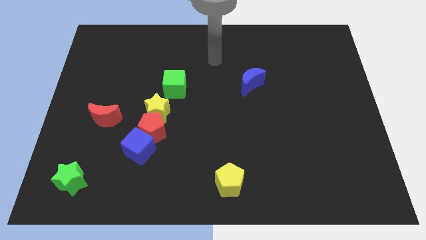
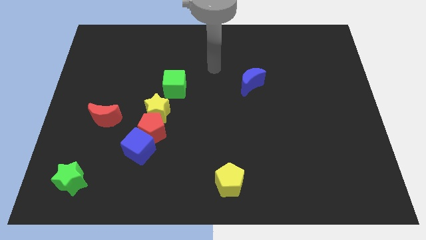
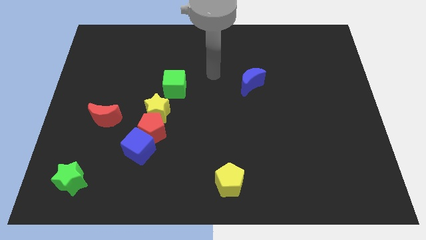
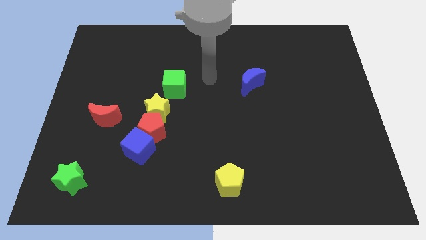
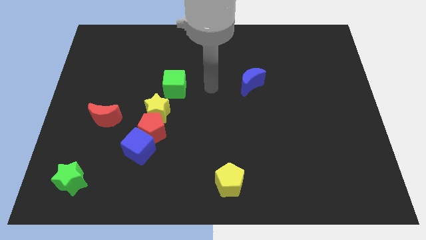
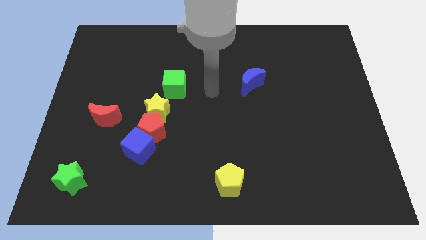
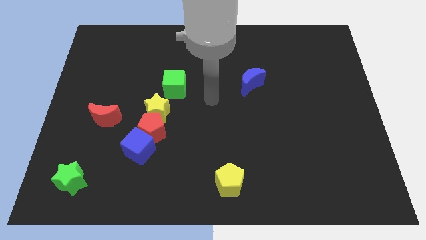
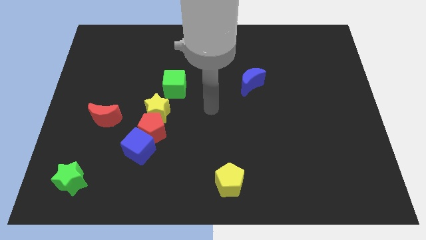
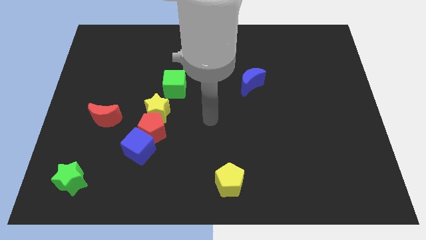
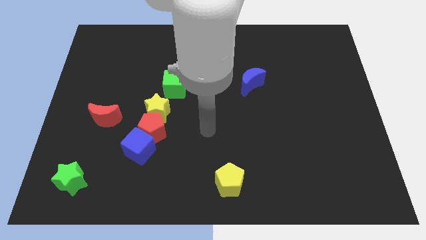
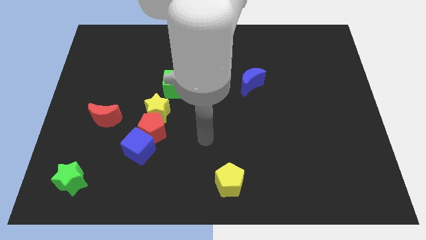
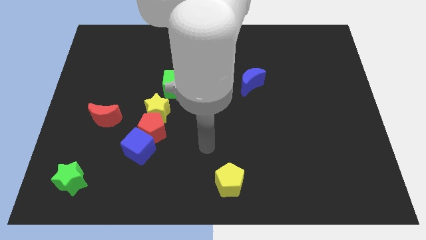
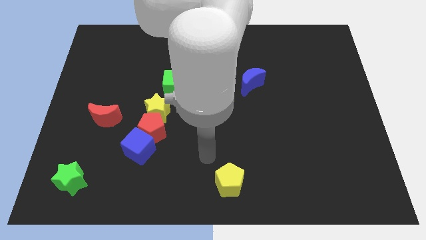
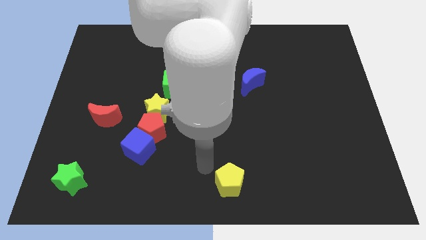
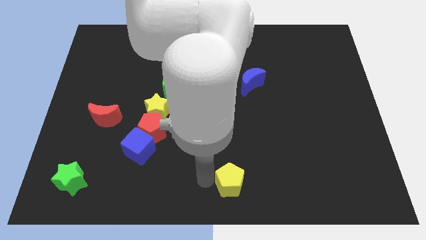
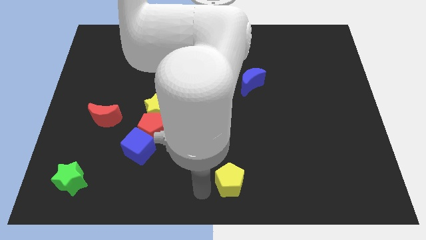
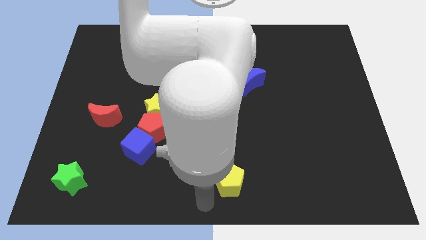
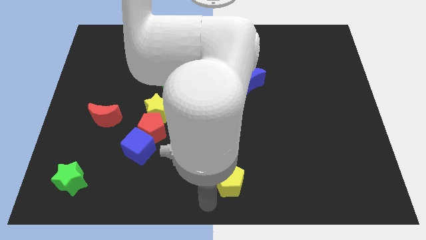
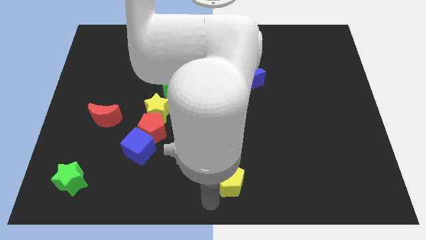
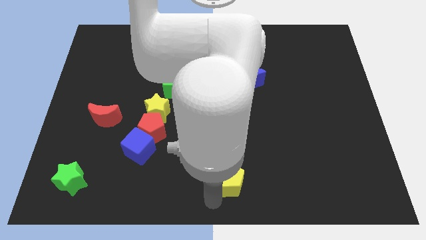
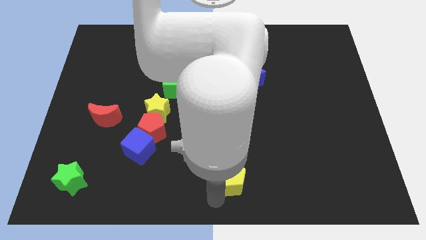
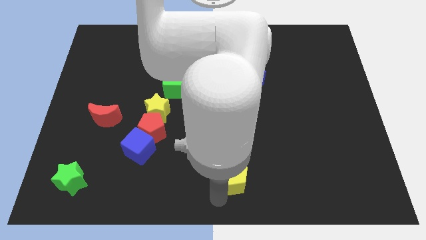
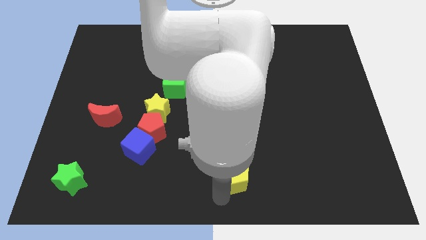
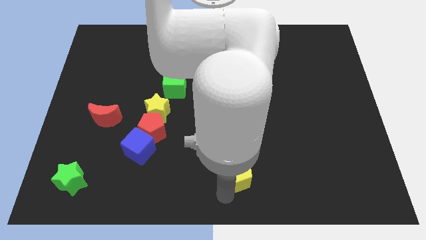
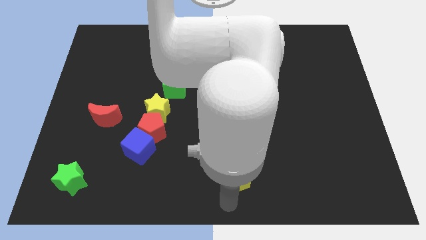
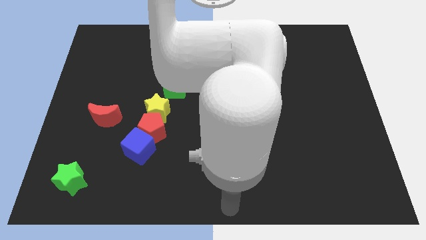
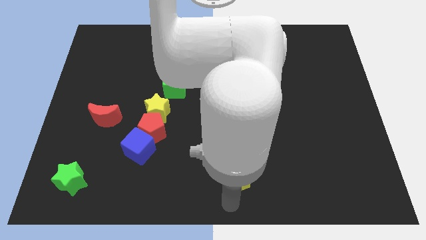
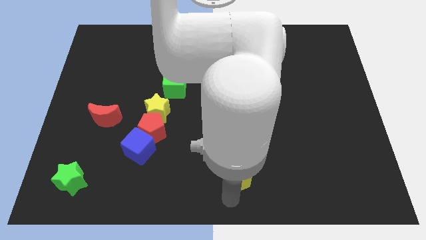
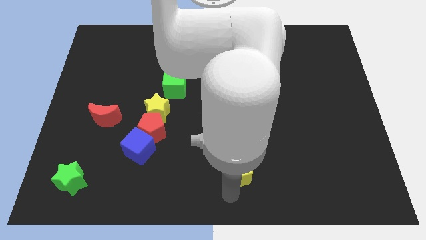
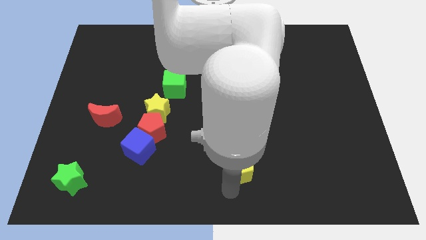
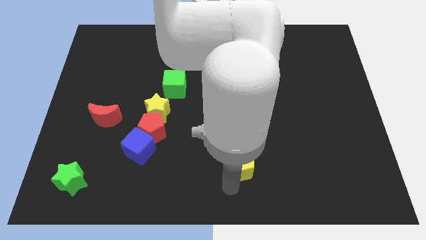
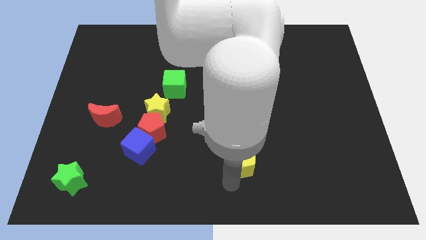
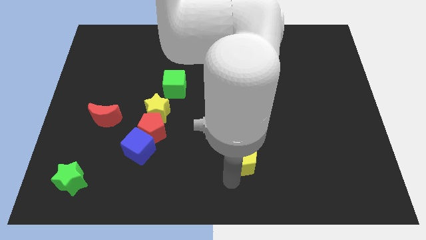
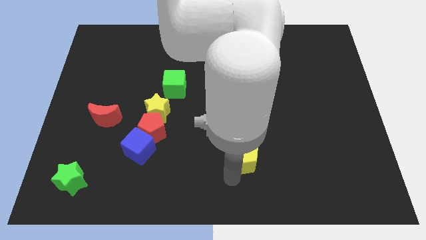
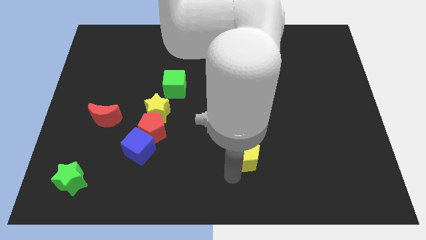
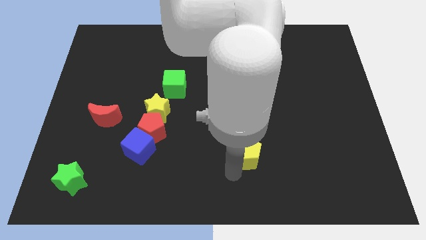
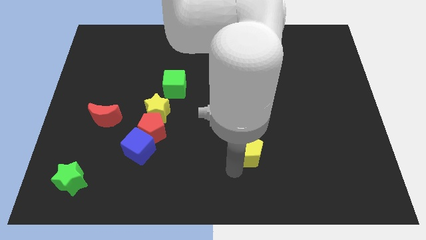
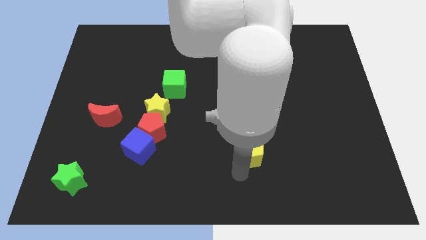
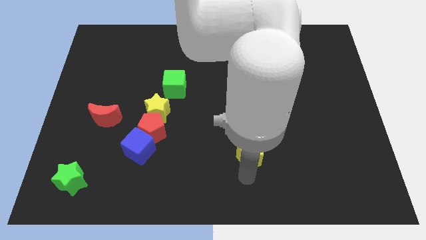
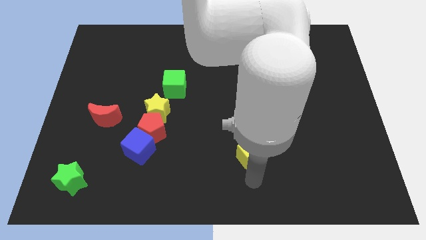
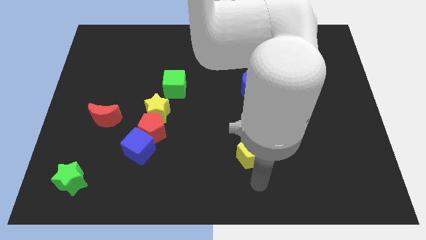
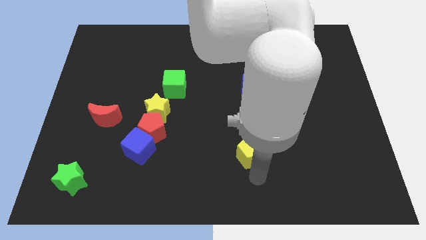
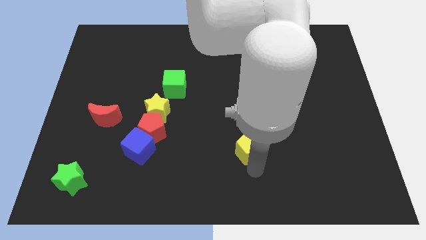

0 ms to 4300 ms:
push the yellow pentagon upwards a little

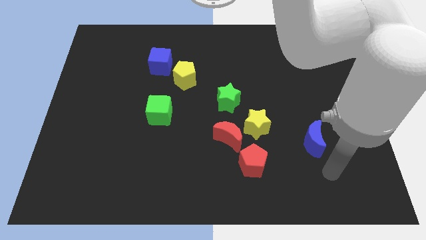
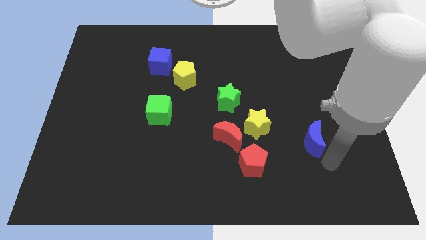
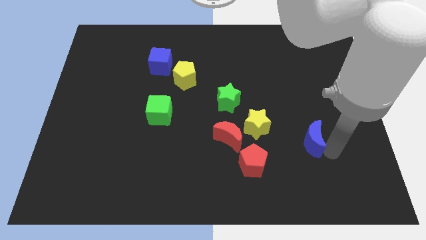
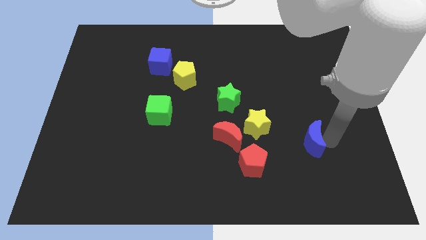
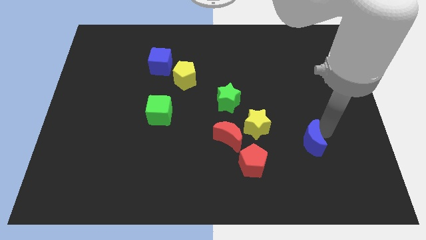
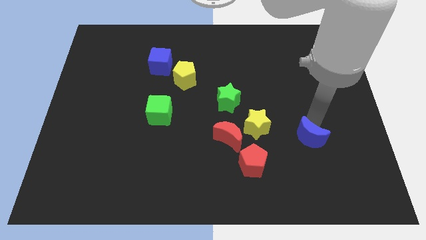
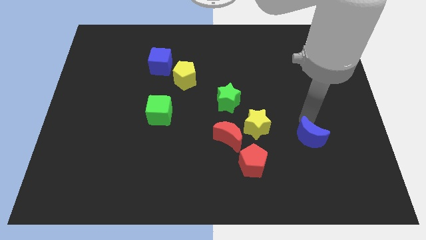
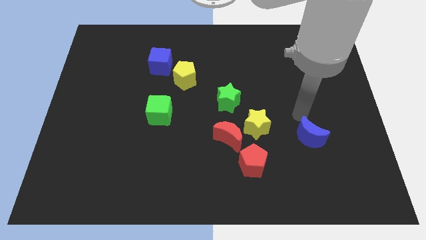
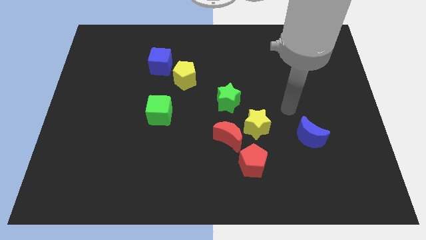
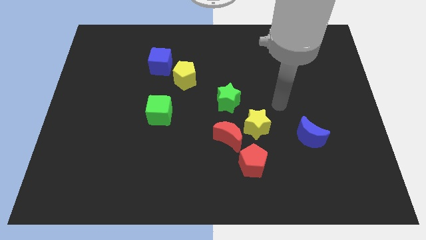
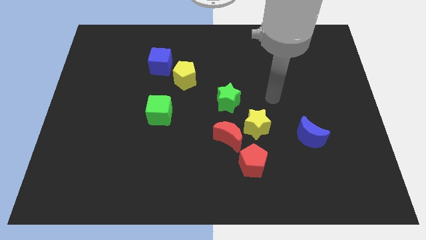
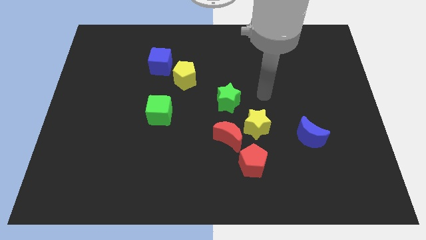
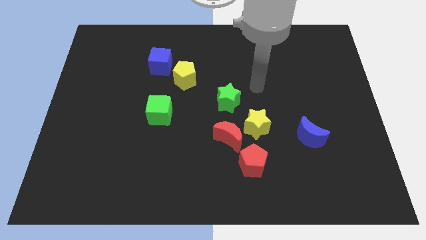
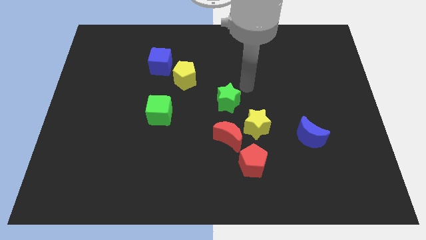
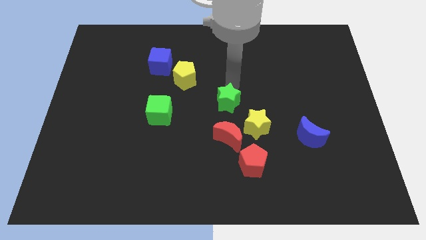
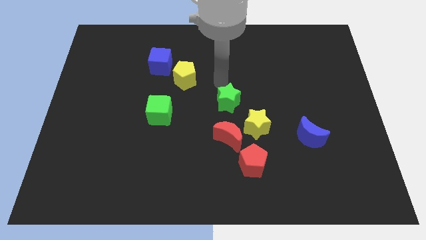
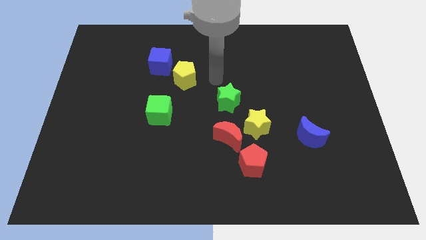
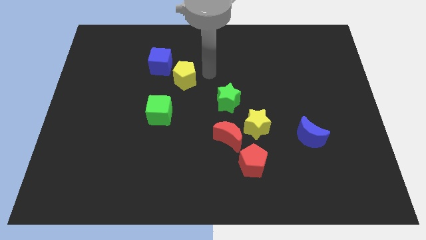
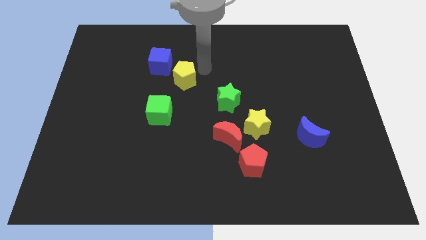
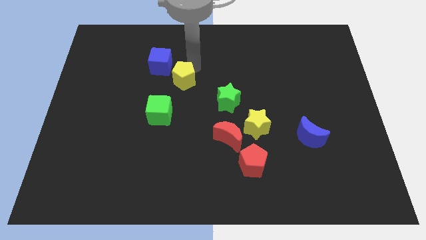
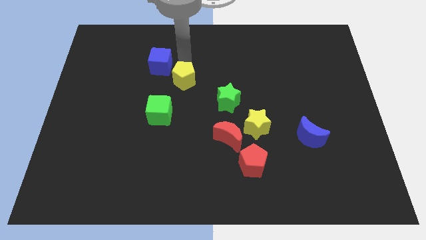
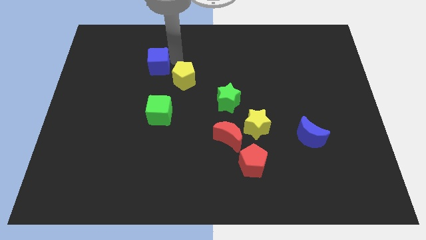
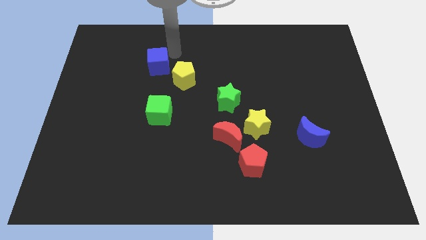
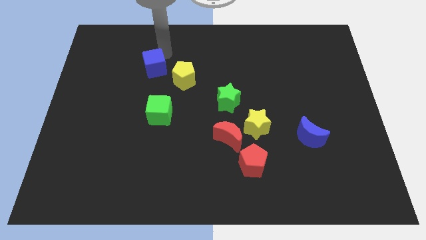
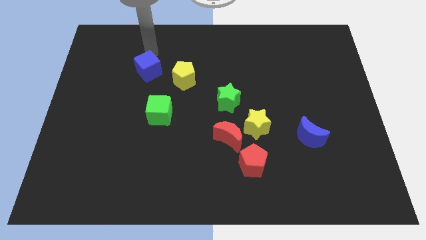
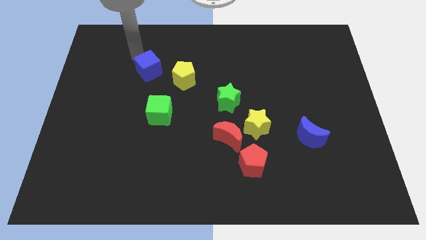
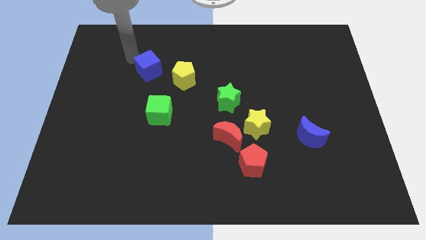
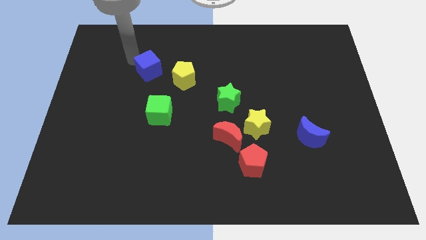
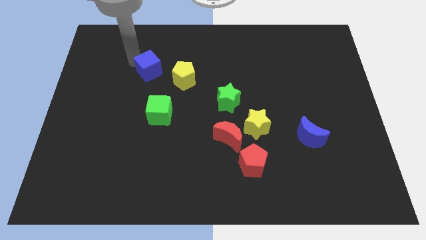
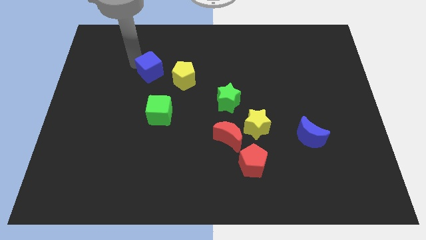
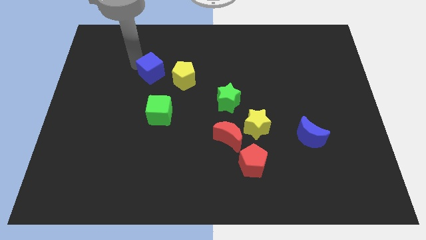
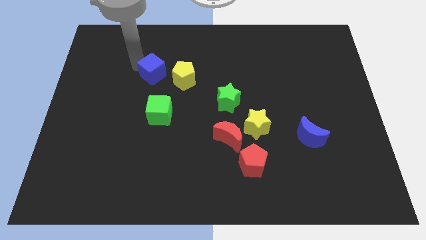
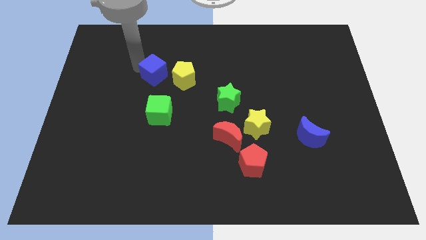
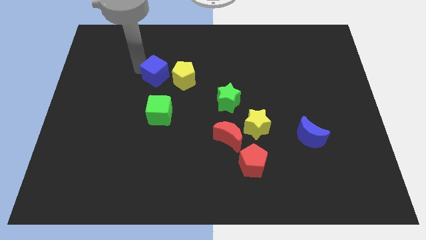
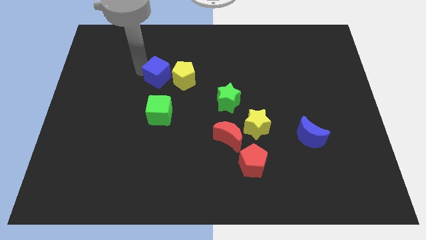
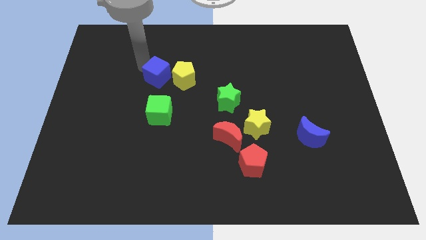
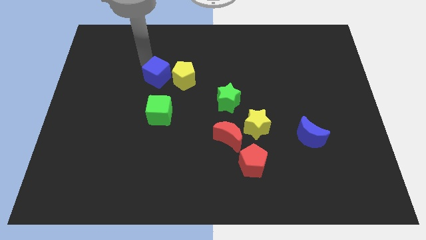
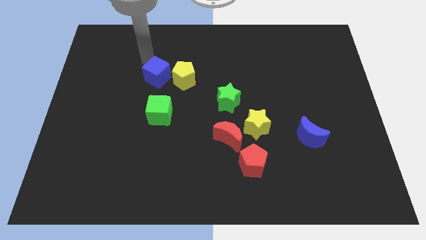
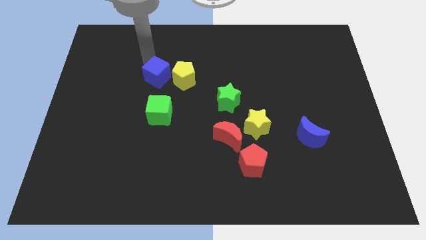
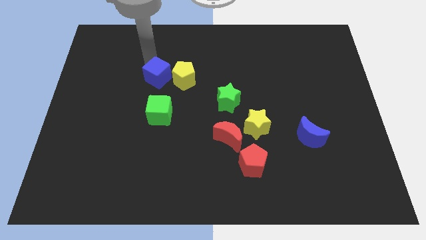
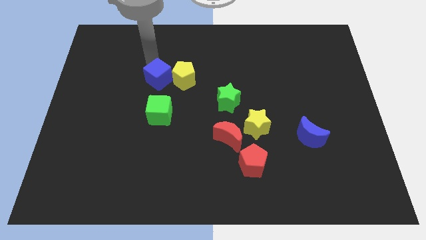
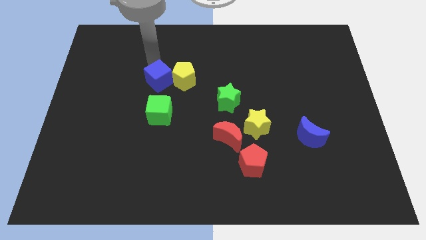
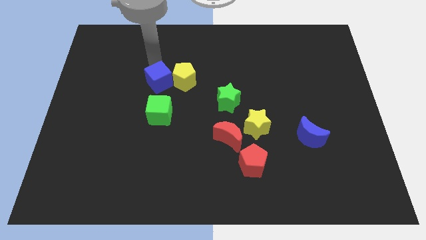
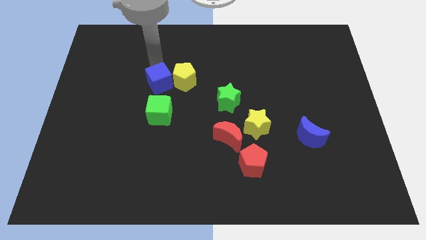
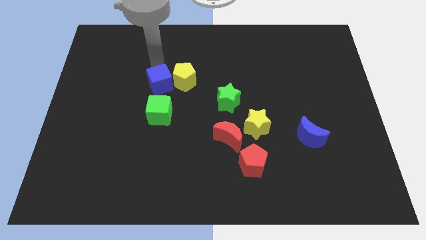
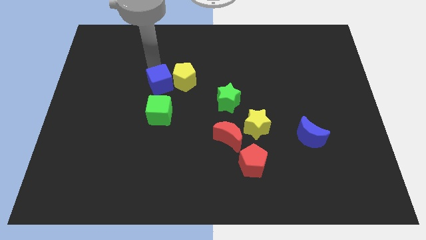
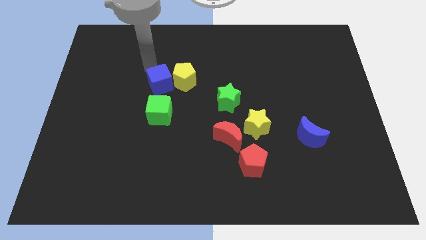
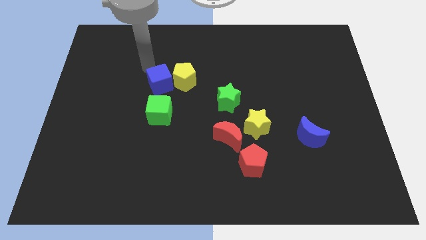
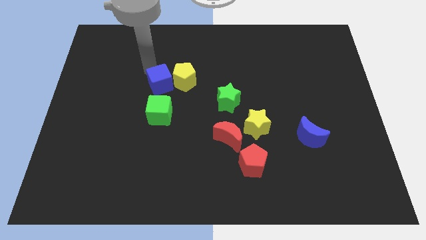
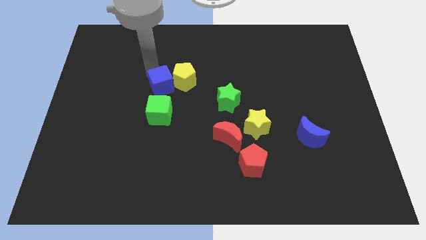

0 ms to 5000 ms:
move the blue cube downwards a little bit
